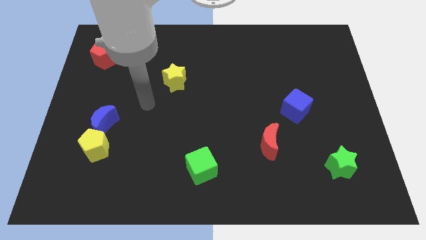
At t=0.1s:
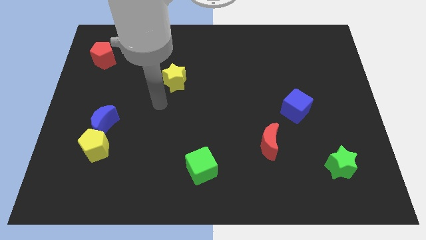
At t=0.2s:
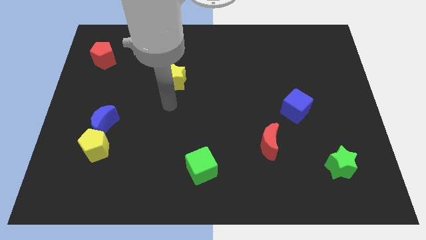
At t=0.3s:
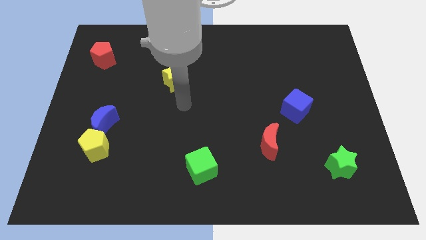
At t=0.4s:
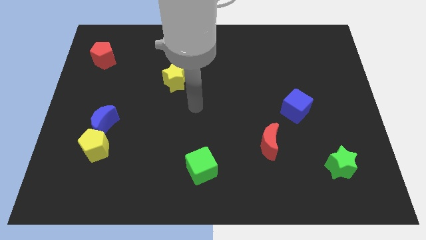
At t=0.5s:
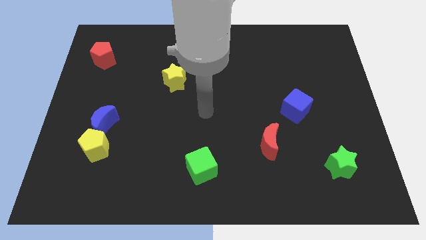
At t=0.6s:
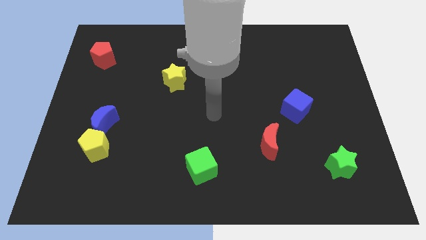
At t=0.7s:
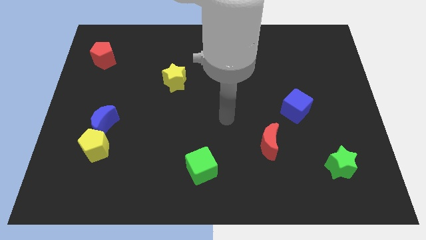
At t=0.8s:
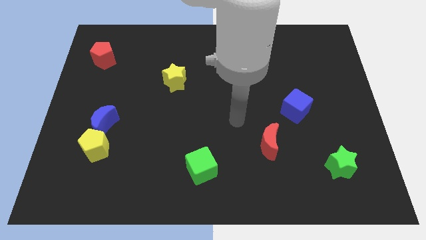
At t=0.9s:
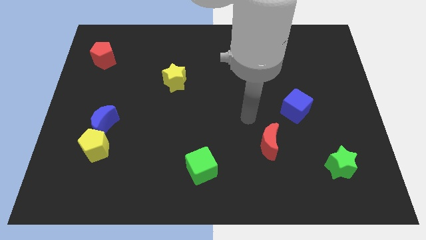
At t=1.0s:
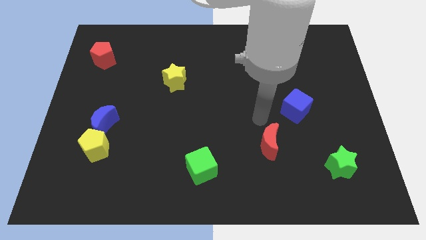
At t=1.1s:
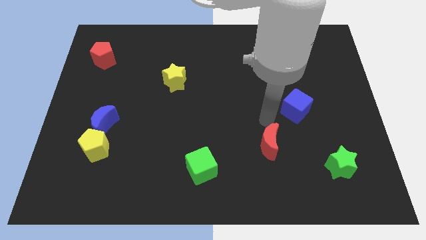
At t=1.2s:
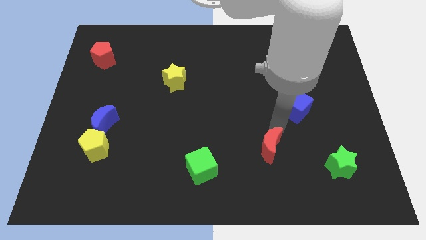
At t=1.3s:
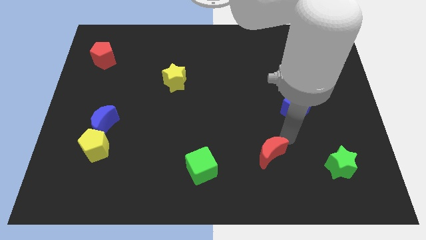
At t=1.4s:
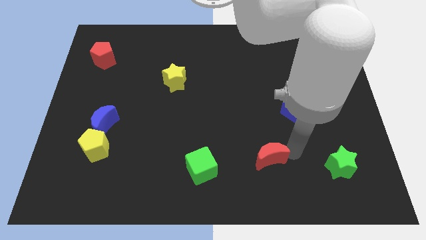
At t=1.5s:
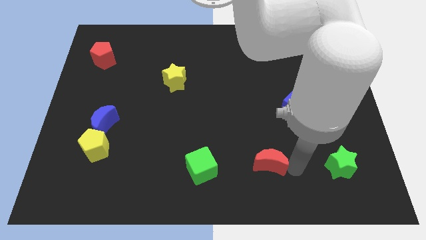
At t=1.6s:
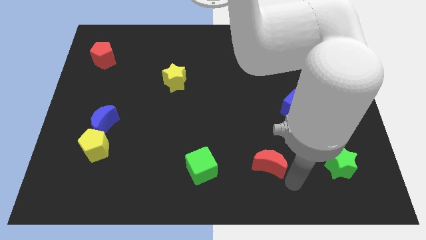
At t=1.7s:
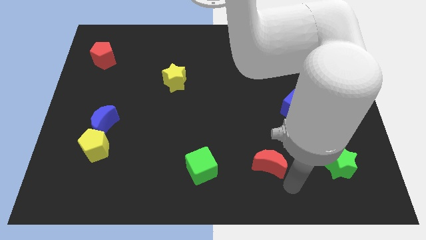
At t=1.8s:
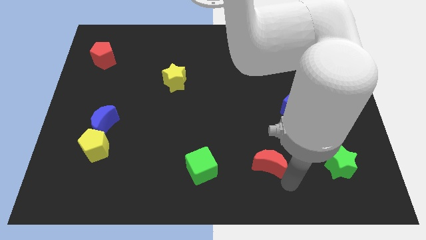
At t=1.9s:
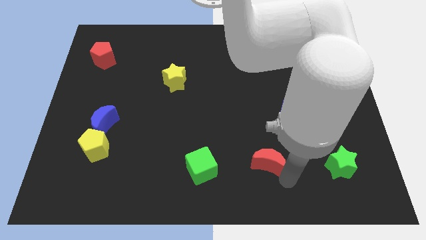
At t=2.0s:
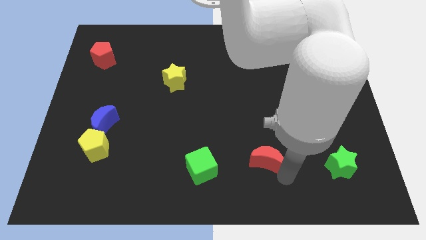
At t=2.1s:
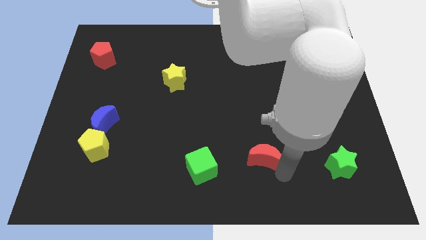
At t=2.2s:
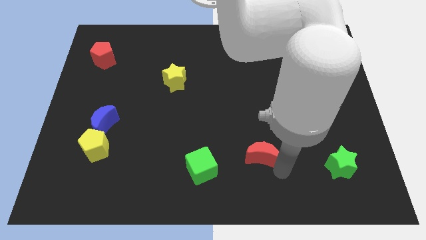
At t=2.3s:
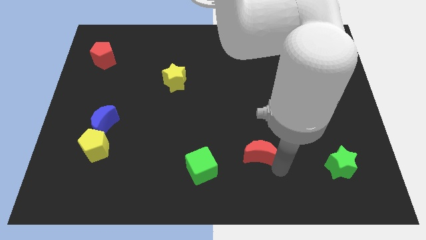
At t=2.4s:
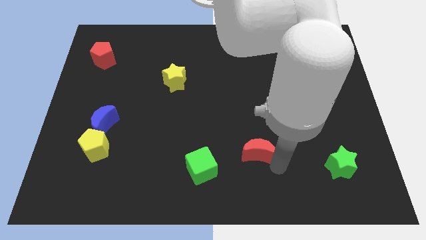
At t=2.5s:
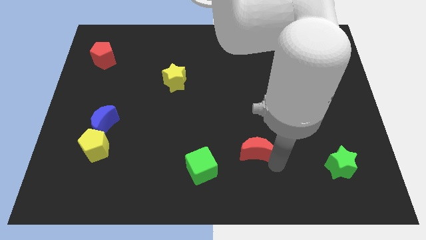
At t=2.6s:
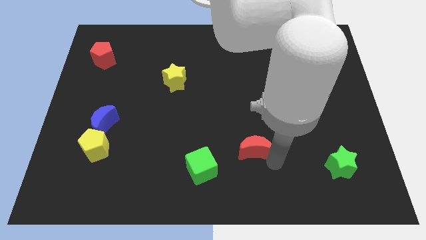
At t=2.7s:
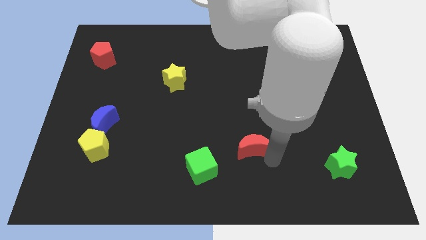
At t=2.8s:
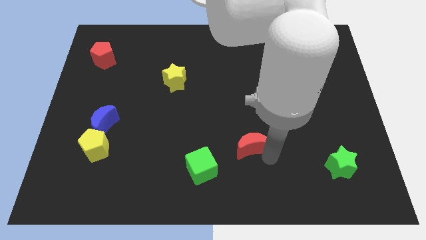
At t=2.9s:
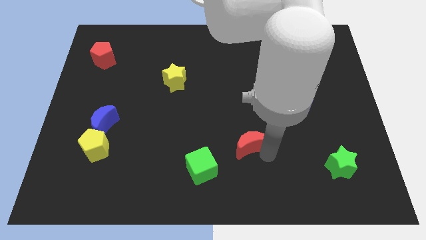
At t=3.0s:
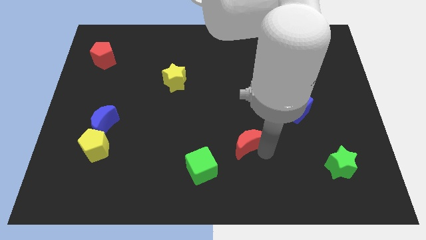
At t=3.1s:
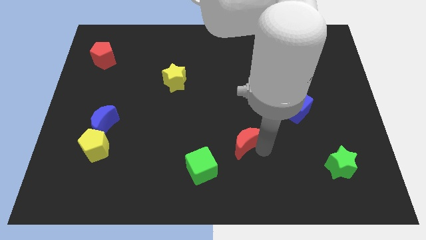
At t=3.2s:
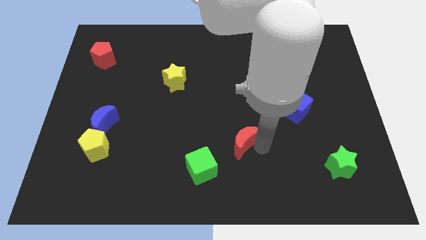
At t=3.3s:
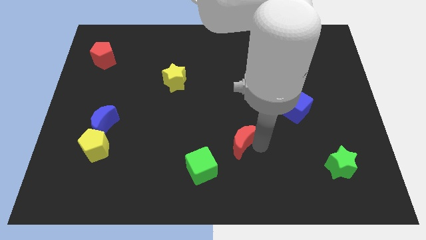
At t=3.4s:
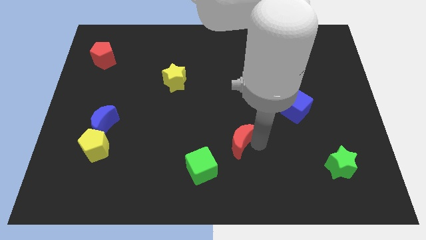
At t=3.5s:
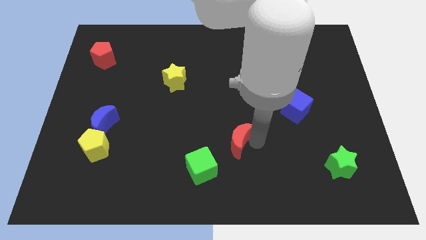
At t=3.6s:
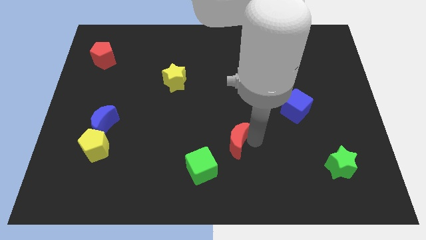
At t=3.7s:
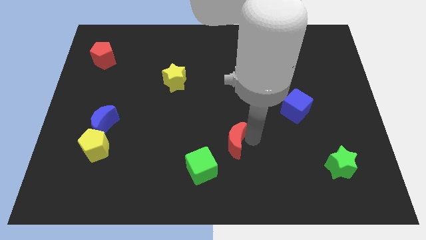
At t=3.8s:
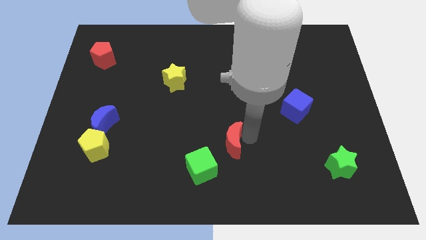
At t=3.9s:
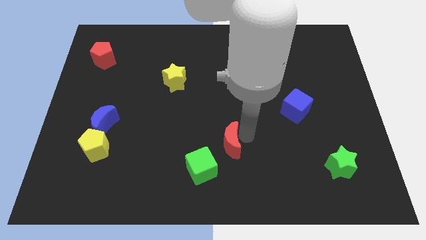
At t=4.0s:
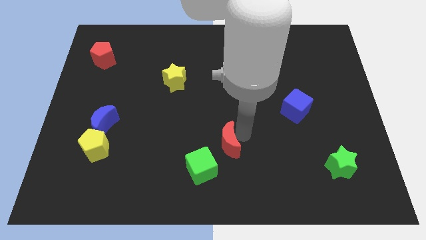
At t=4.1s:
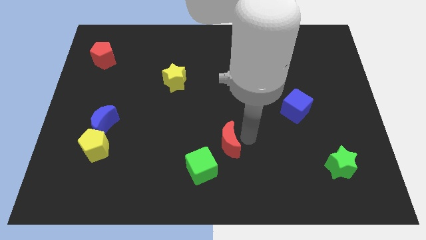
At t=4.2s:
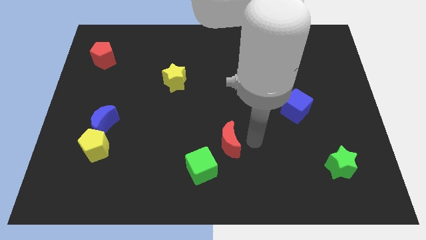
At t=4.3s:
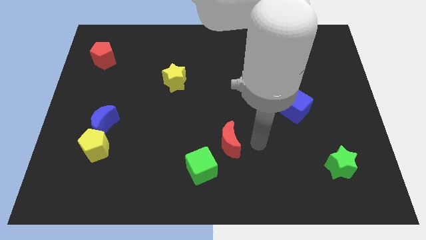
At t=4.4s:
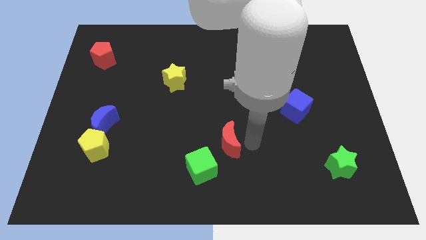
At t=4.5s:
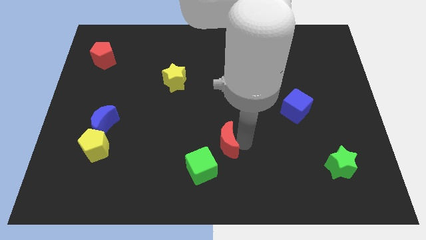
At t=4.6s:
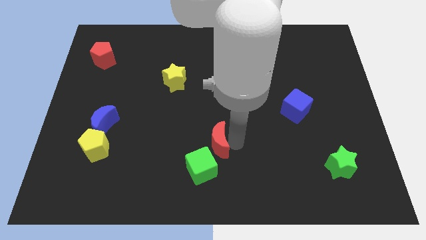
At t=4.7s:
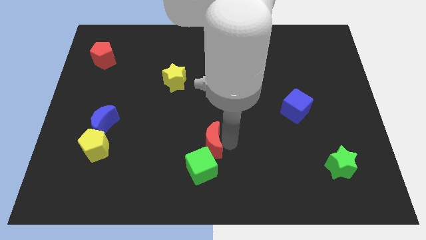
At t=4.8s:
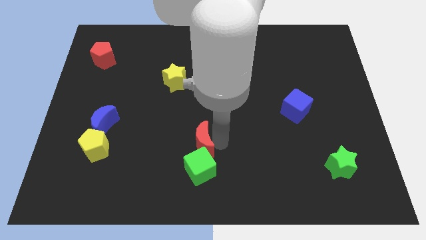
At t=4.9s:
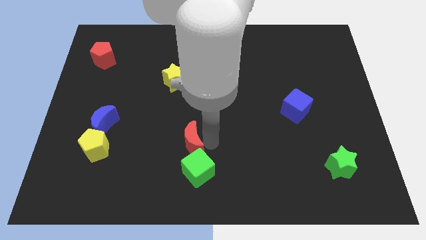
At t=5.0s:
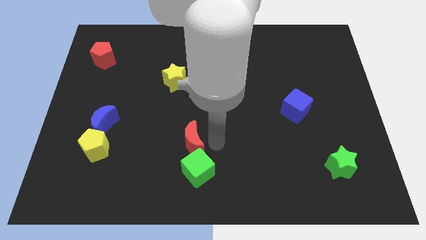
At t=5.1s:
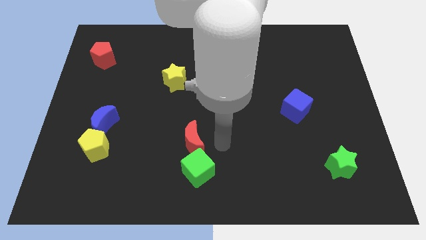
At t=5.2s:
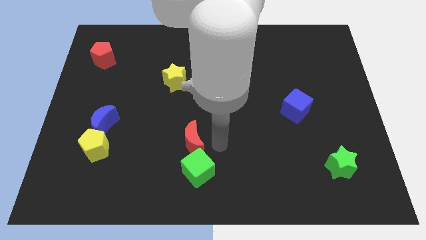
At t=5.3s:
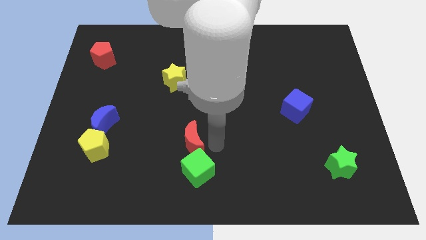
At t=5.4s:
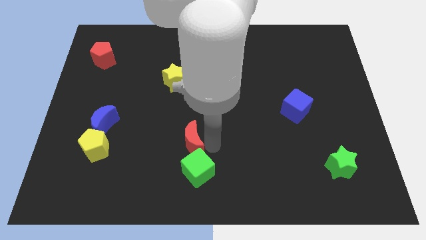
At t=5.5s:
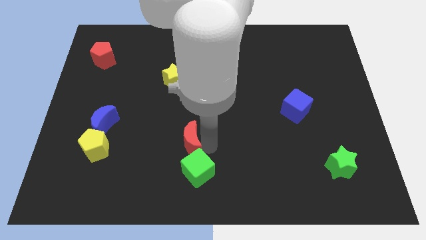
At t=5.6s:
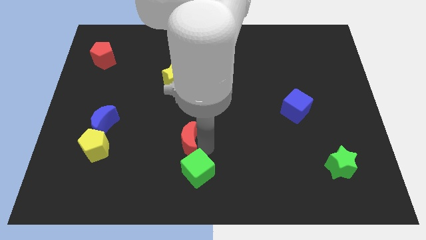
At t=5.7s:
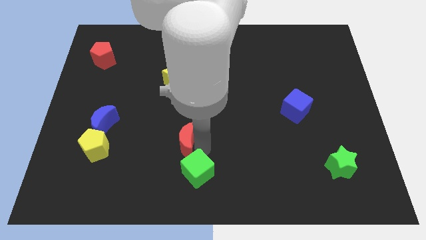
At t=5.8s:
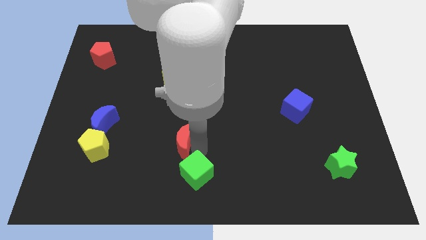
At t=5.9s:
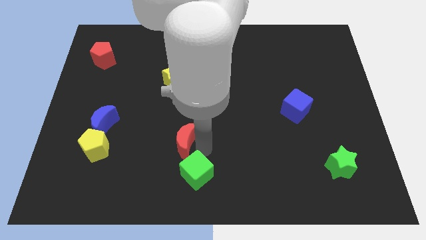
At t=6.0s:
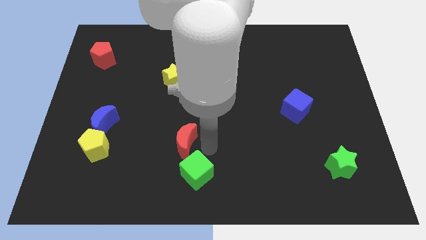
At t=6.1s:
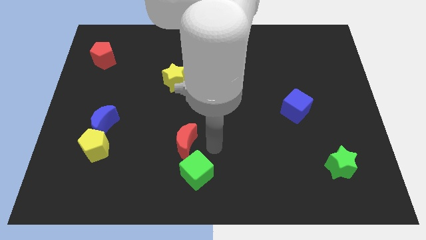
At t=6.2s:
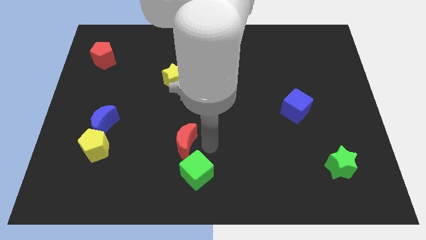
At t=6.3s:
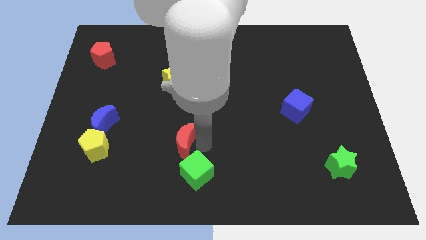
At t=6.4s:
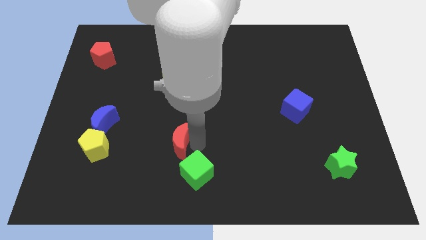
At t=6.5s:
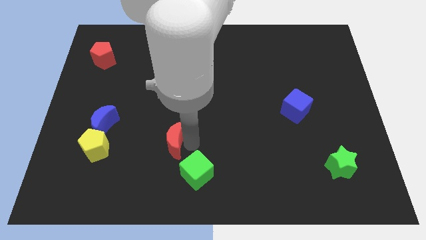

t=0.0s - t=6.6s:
move the red moon to the left

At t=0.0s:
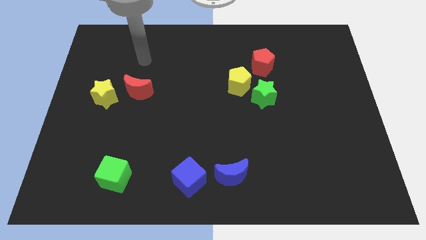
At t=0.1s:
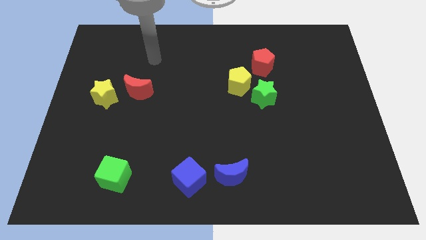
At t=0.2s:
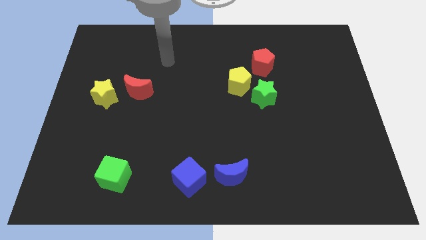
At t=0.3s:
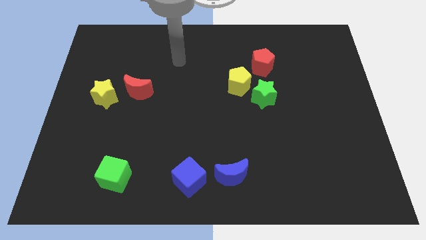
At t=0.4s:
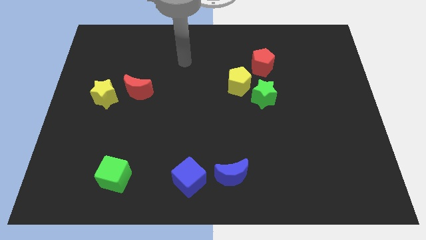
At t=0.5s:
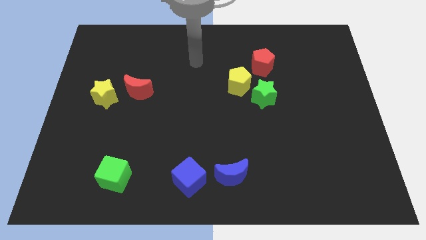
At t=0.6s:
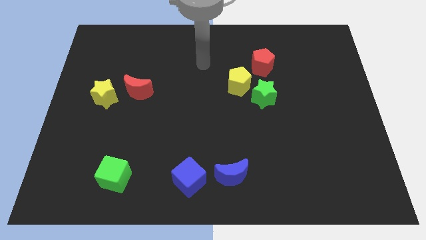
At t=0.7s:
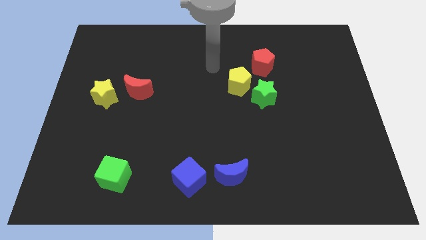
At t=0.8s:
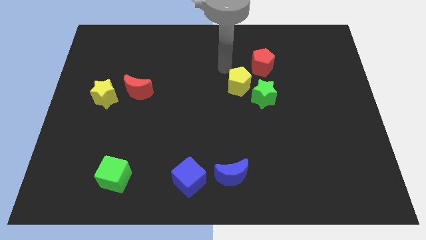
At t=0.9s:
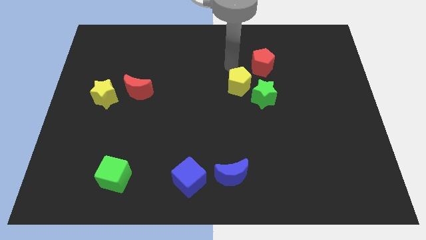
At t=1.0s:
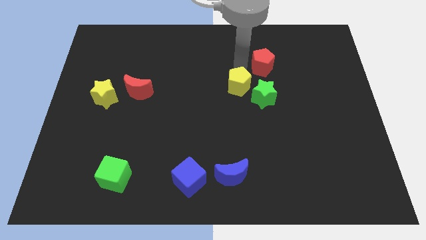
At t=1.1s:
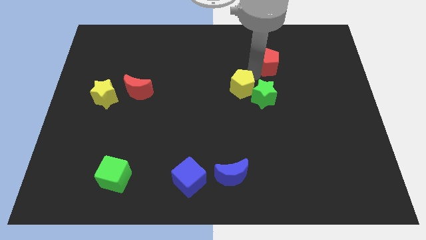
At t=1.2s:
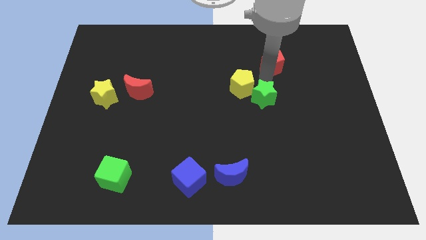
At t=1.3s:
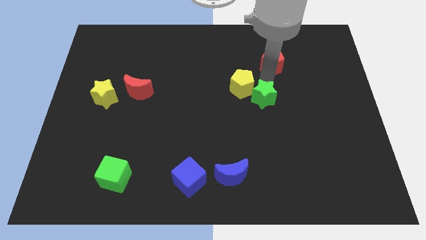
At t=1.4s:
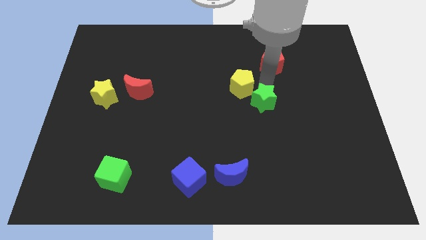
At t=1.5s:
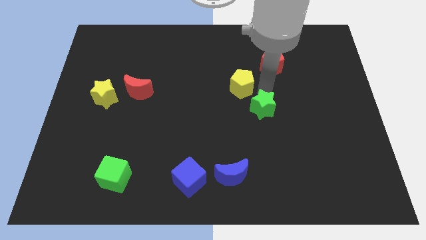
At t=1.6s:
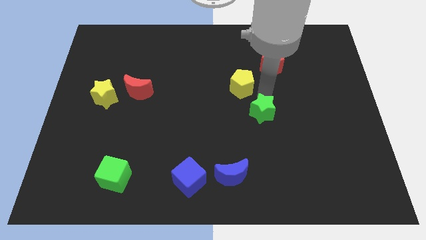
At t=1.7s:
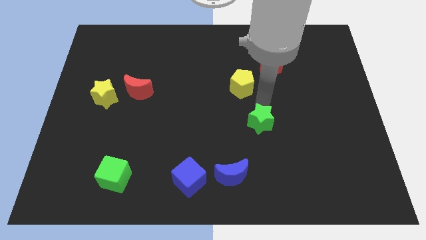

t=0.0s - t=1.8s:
slightly slide the green star down
